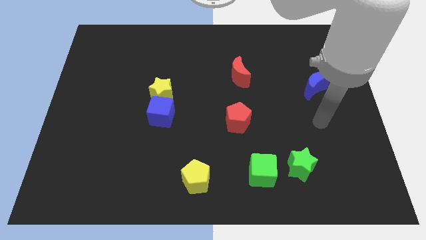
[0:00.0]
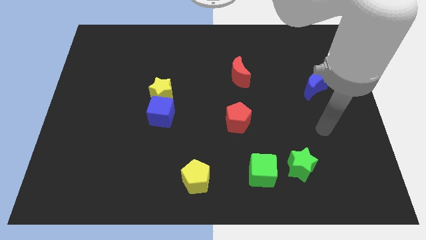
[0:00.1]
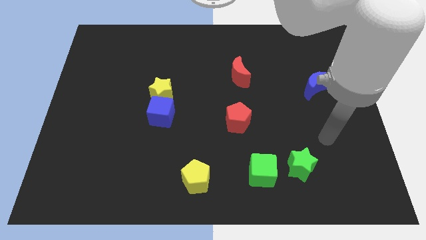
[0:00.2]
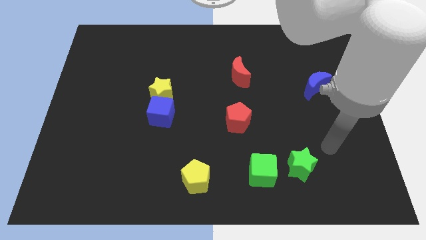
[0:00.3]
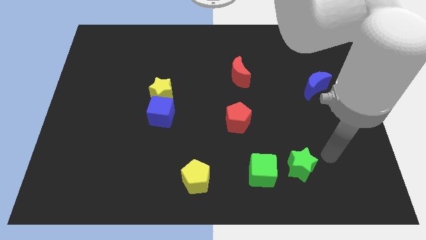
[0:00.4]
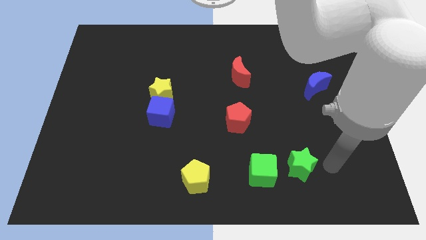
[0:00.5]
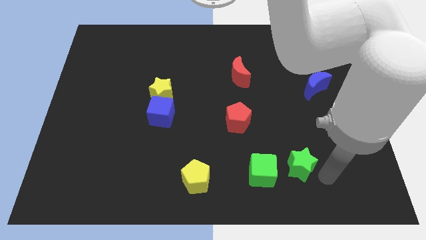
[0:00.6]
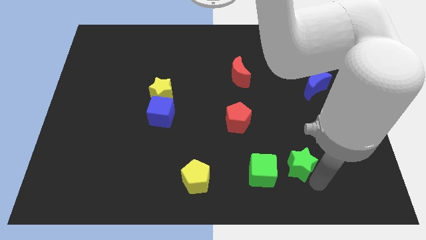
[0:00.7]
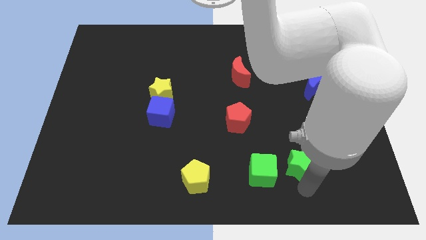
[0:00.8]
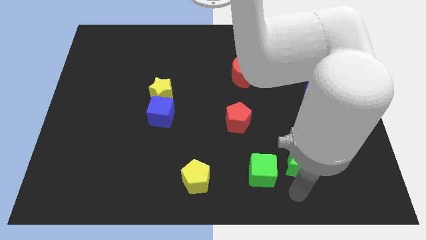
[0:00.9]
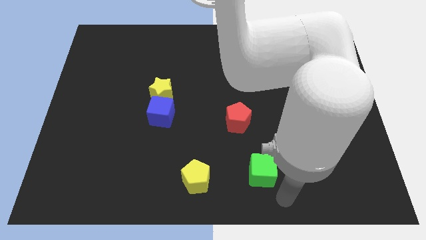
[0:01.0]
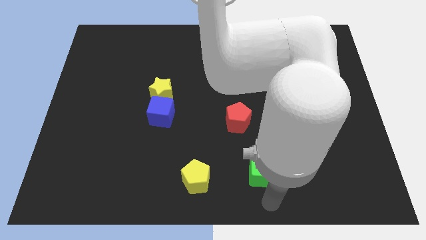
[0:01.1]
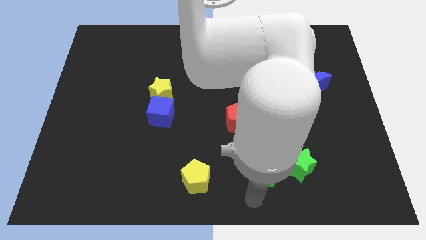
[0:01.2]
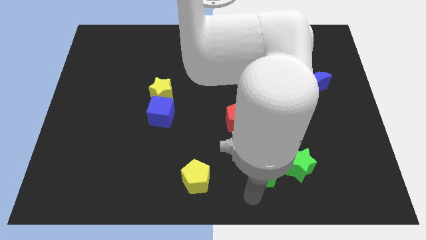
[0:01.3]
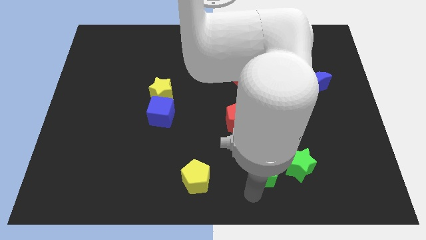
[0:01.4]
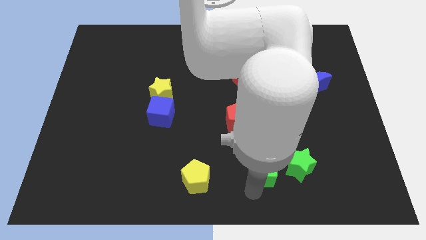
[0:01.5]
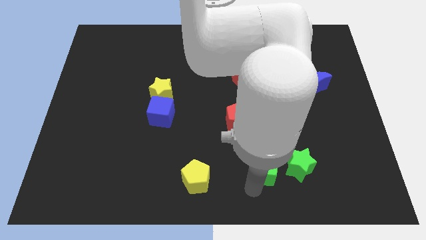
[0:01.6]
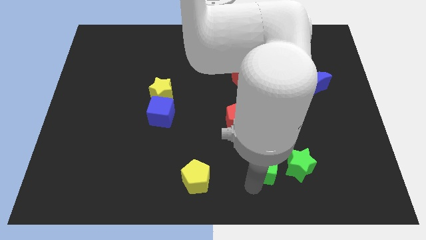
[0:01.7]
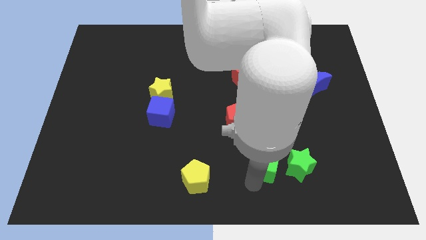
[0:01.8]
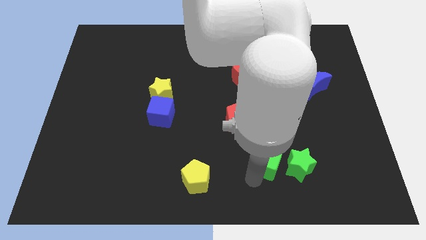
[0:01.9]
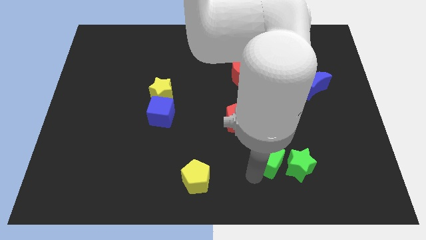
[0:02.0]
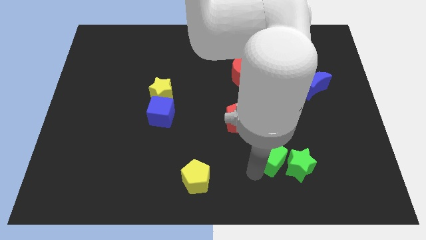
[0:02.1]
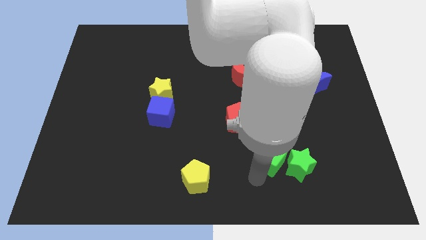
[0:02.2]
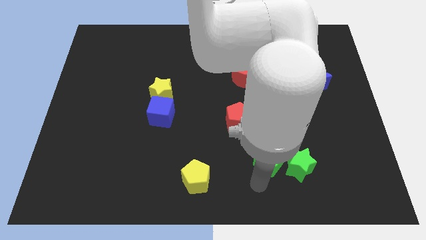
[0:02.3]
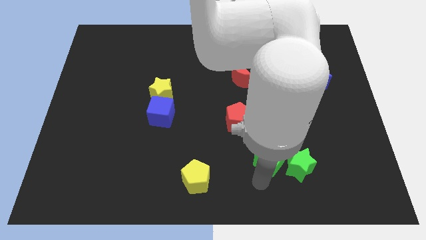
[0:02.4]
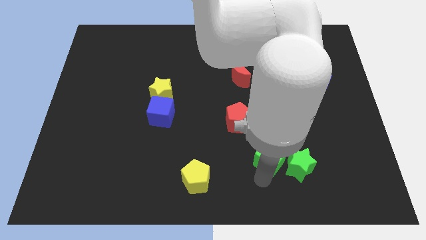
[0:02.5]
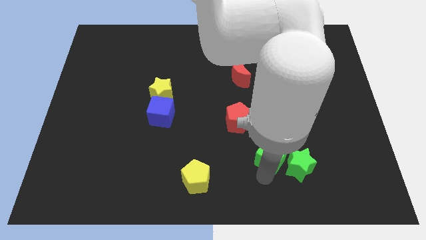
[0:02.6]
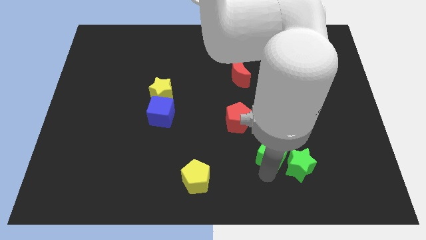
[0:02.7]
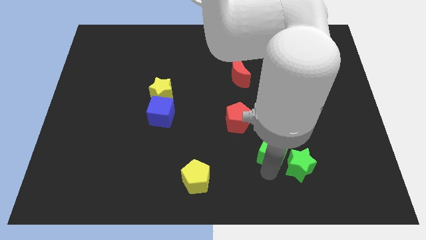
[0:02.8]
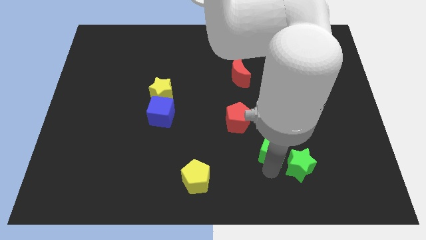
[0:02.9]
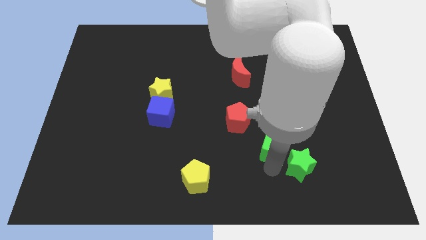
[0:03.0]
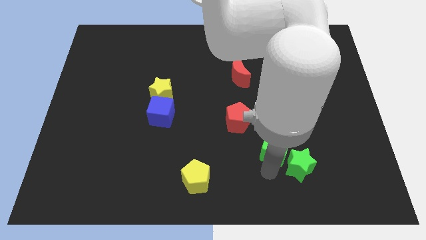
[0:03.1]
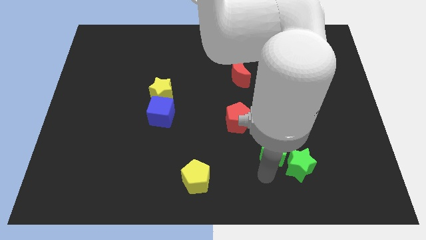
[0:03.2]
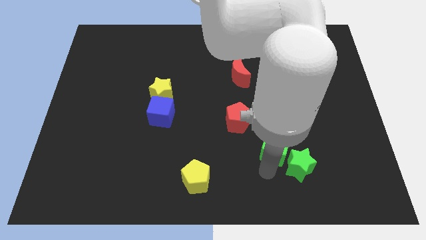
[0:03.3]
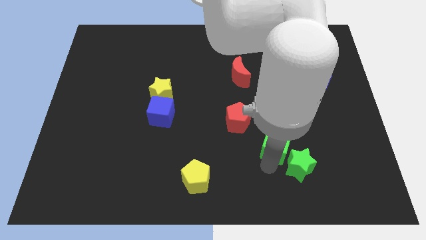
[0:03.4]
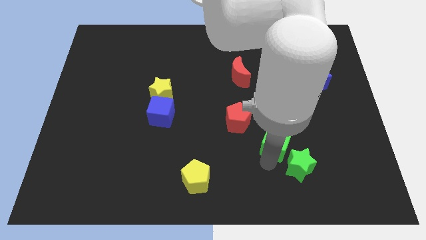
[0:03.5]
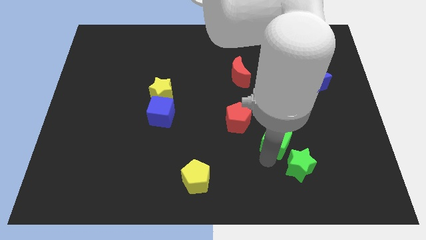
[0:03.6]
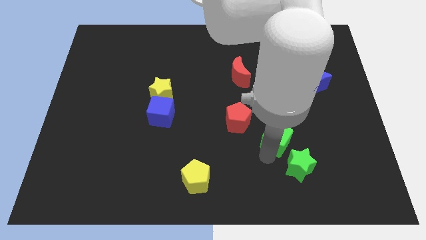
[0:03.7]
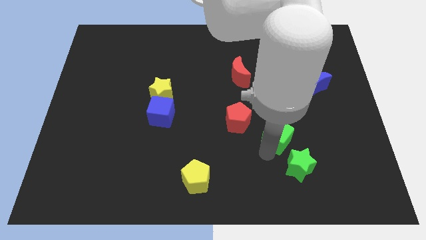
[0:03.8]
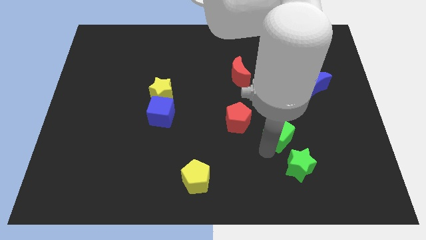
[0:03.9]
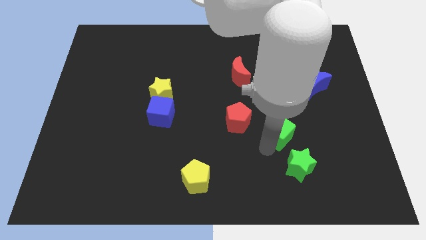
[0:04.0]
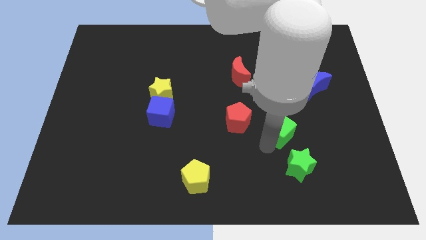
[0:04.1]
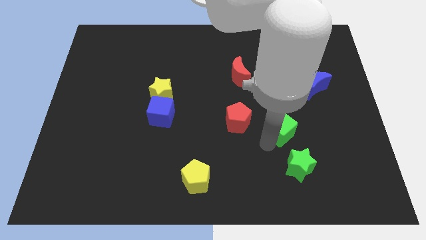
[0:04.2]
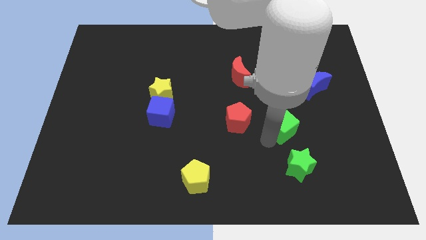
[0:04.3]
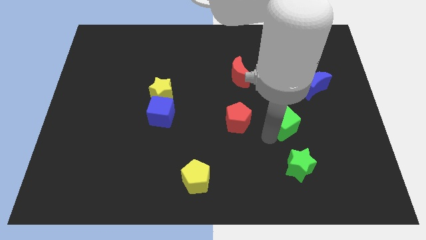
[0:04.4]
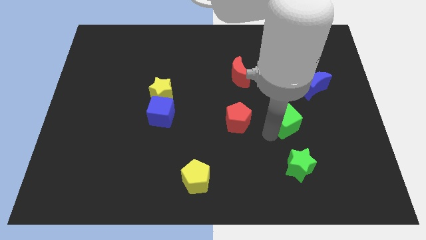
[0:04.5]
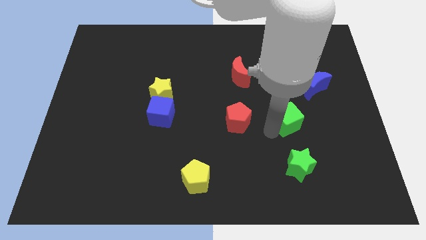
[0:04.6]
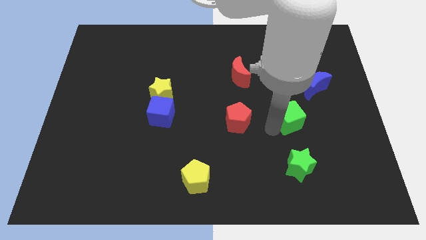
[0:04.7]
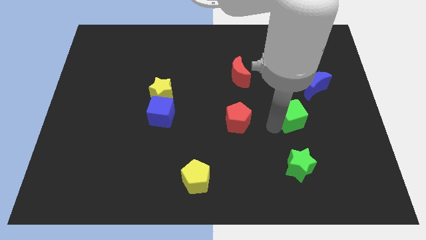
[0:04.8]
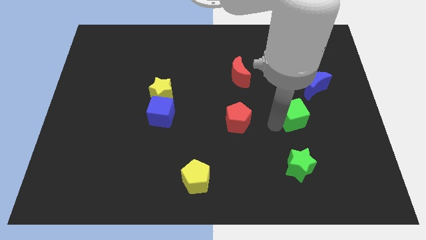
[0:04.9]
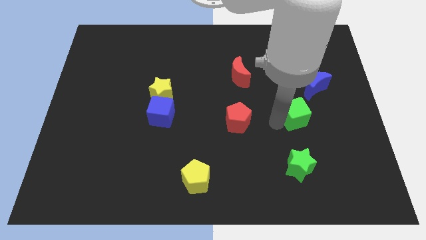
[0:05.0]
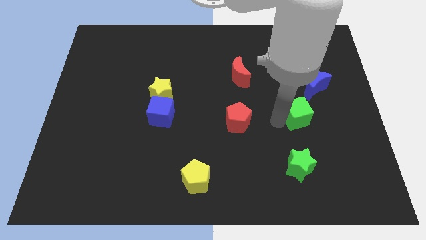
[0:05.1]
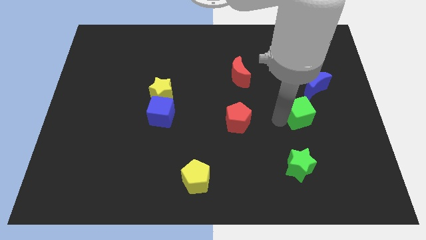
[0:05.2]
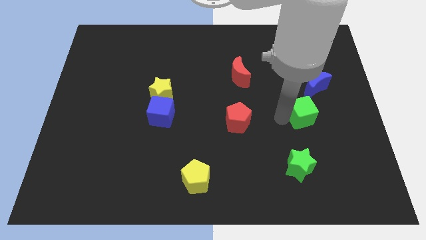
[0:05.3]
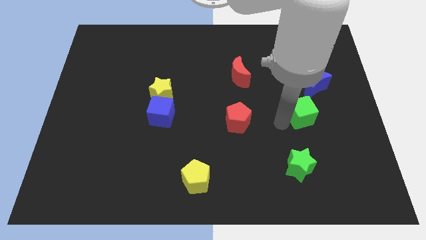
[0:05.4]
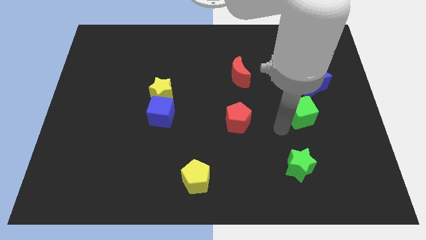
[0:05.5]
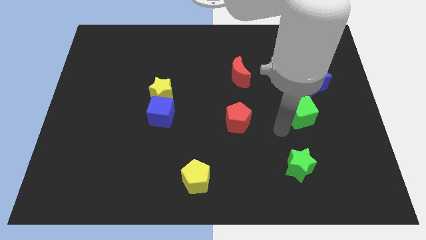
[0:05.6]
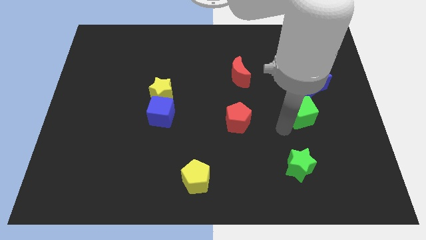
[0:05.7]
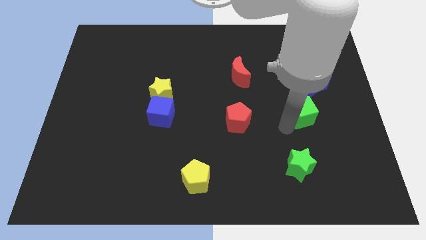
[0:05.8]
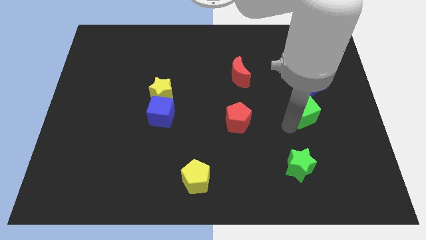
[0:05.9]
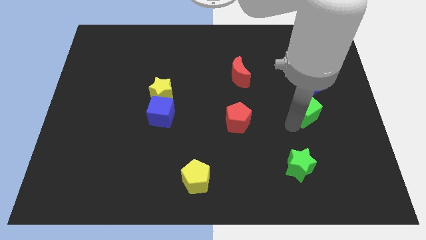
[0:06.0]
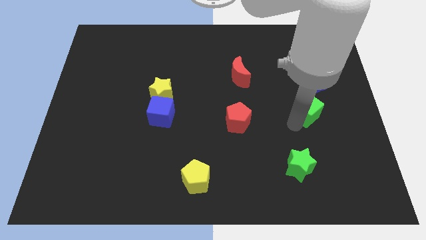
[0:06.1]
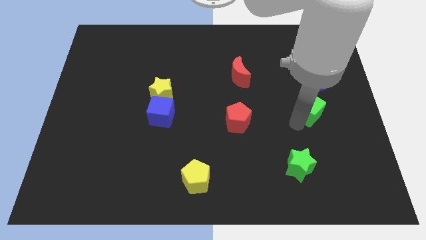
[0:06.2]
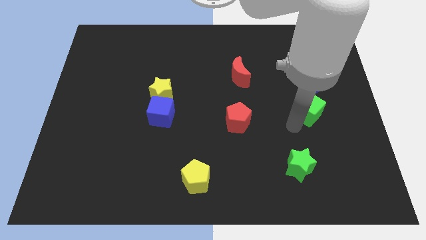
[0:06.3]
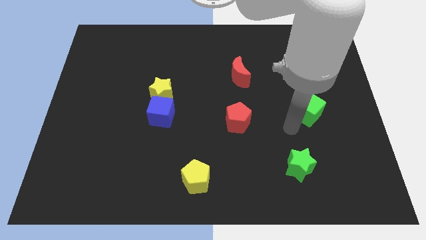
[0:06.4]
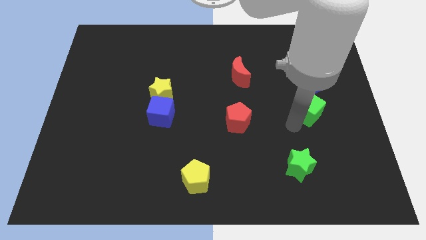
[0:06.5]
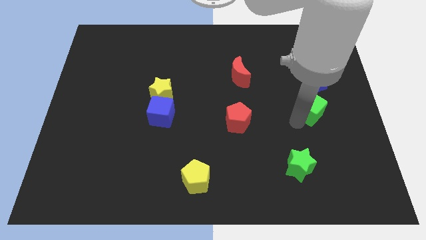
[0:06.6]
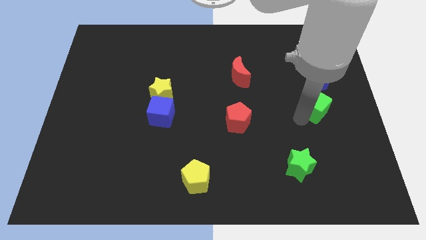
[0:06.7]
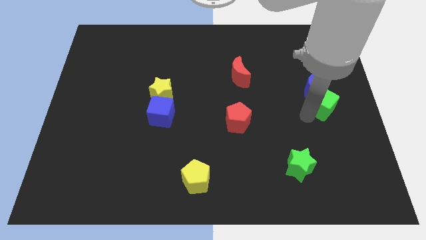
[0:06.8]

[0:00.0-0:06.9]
slide the green cube next to the blue moon
